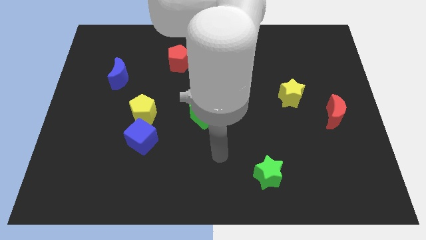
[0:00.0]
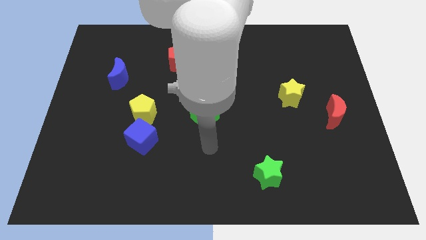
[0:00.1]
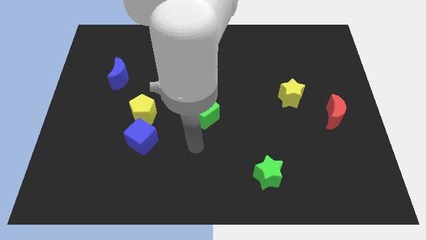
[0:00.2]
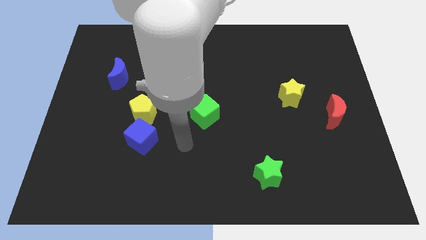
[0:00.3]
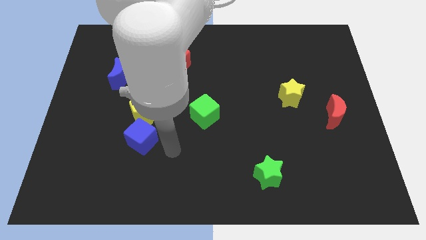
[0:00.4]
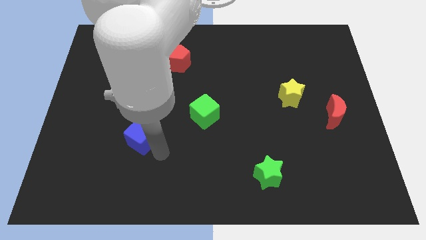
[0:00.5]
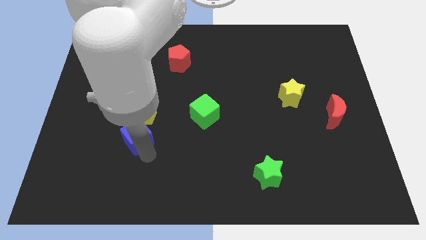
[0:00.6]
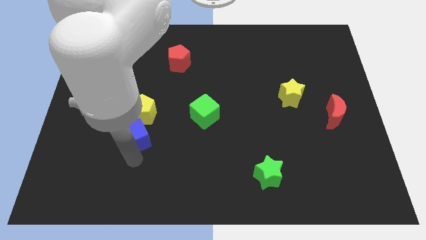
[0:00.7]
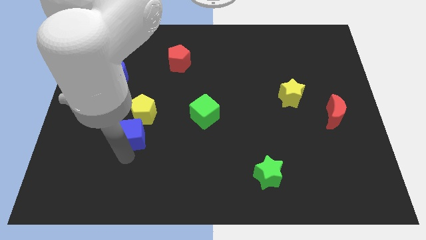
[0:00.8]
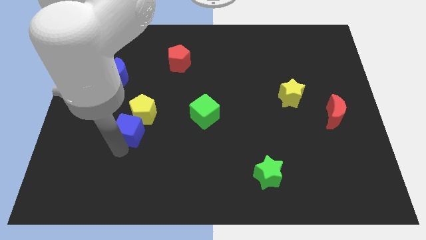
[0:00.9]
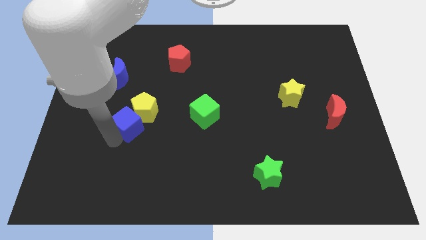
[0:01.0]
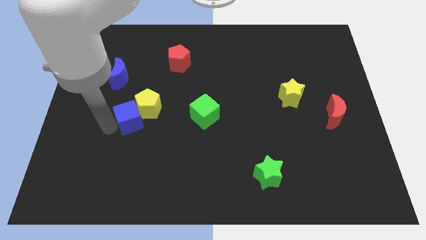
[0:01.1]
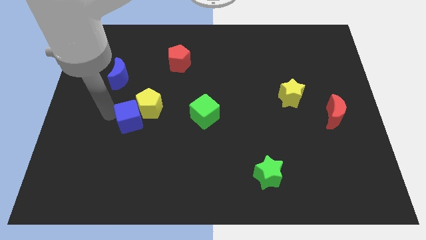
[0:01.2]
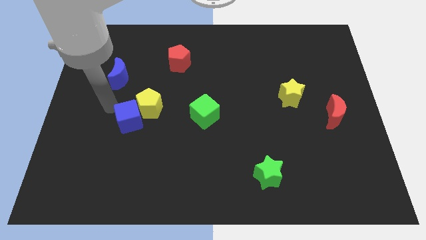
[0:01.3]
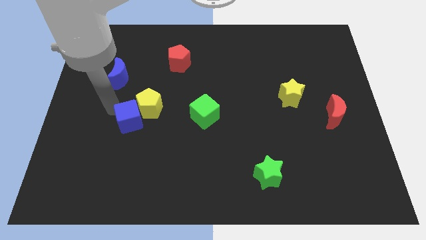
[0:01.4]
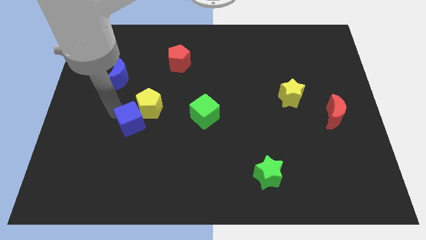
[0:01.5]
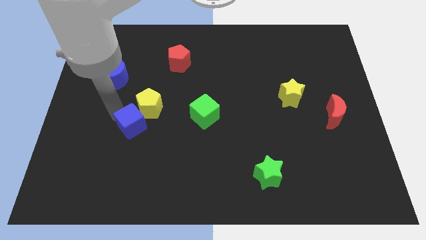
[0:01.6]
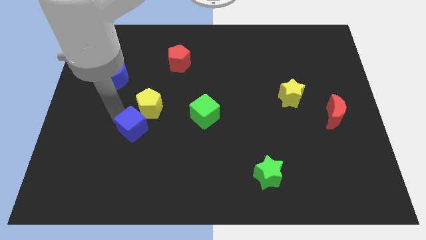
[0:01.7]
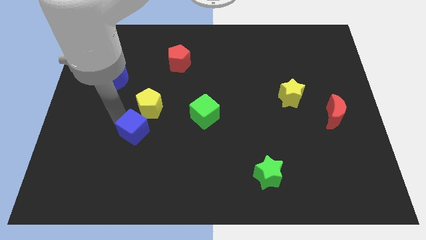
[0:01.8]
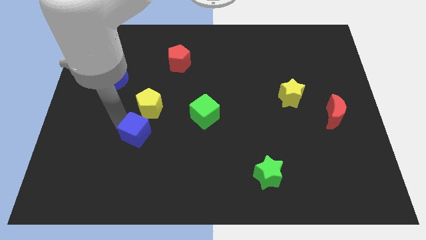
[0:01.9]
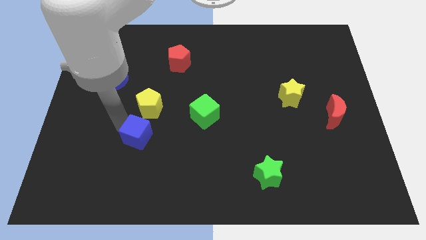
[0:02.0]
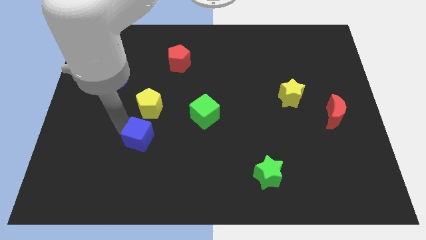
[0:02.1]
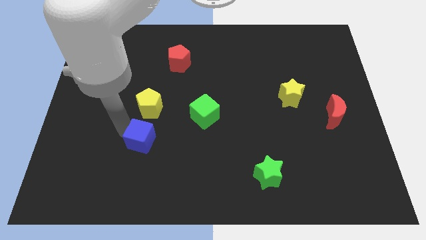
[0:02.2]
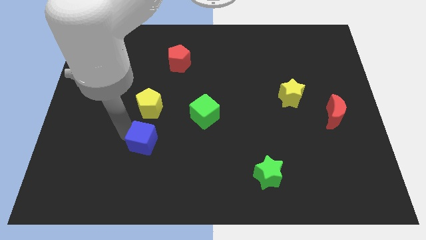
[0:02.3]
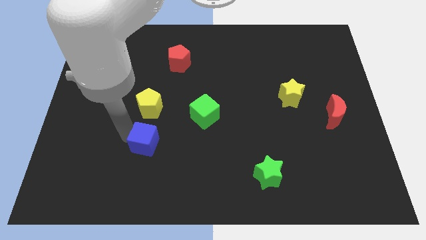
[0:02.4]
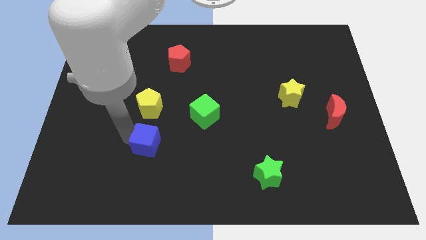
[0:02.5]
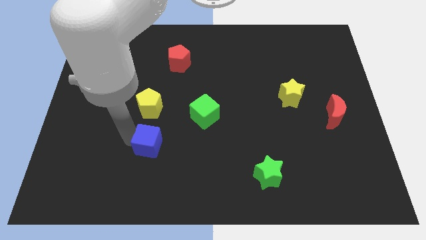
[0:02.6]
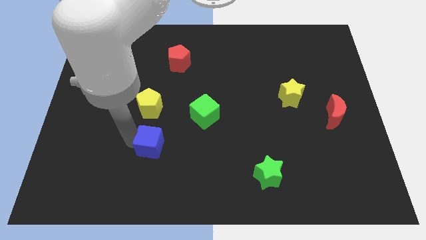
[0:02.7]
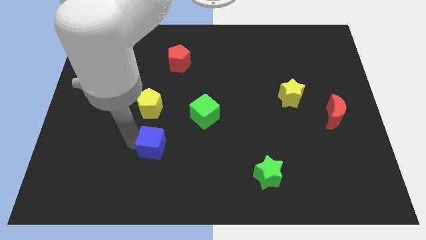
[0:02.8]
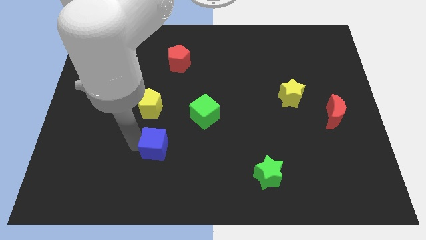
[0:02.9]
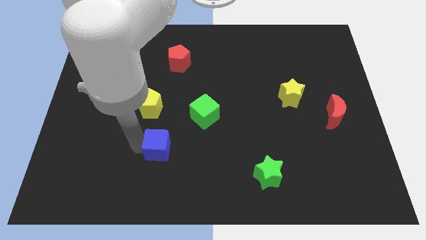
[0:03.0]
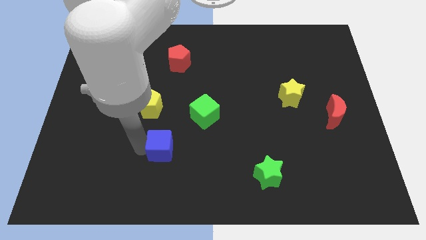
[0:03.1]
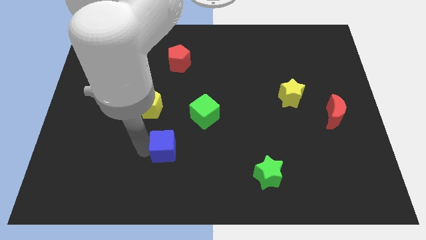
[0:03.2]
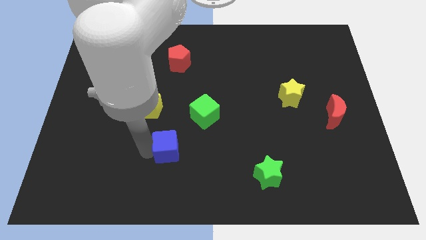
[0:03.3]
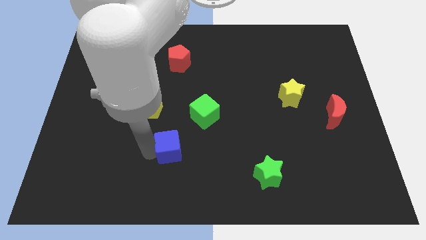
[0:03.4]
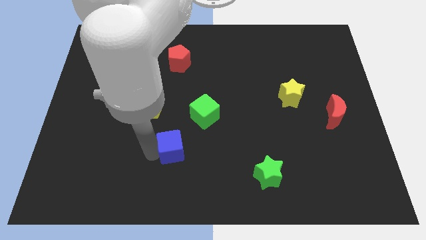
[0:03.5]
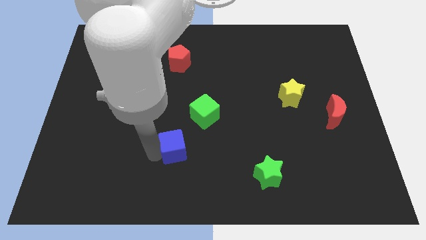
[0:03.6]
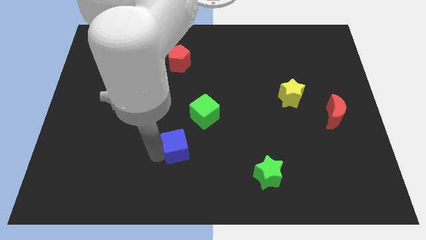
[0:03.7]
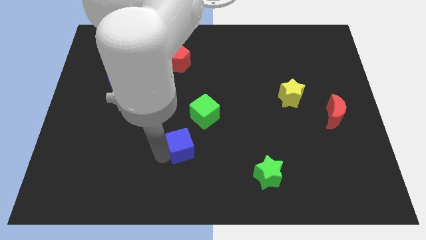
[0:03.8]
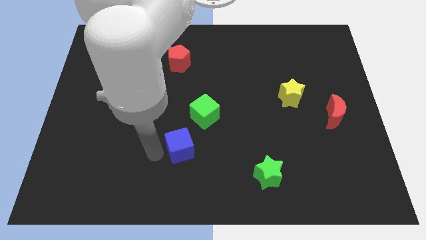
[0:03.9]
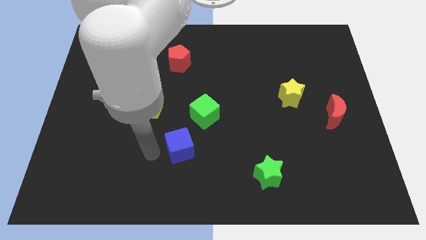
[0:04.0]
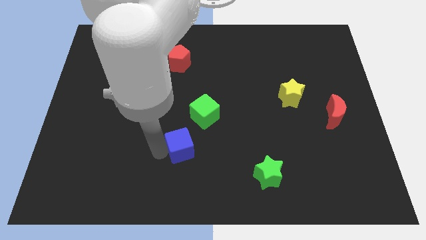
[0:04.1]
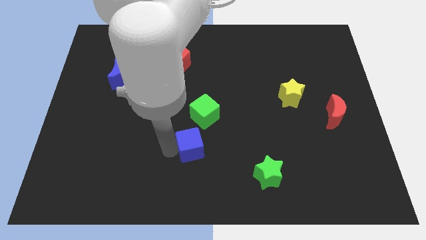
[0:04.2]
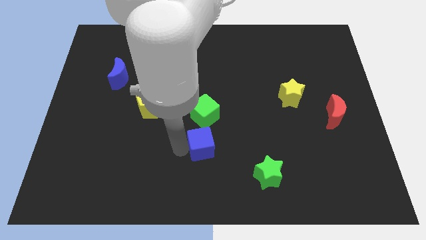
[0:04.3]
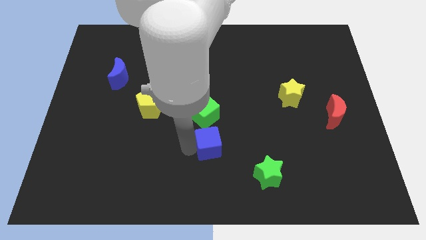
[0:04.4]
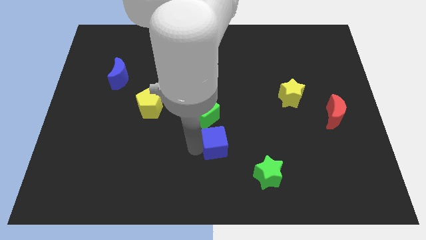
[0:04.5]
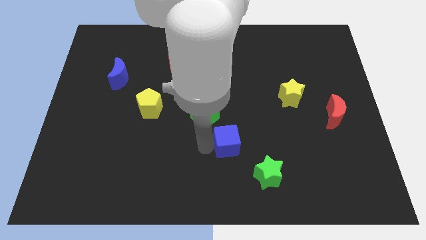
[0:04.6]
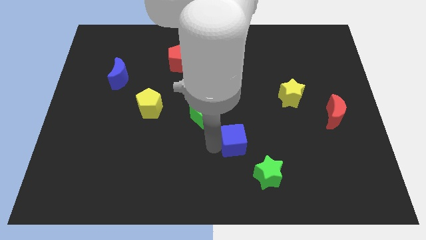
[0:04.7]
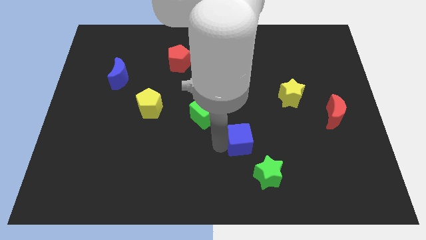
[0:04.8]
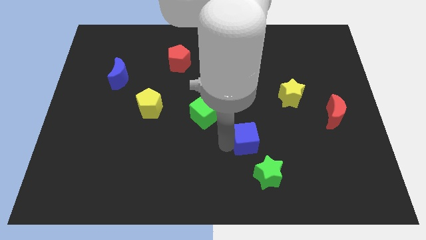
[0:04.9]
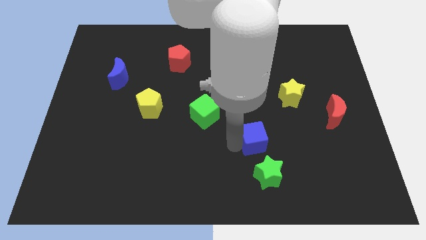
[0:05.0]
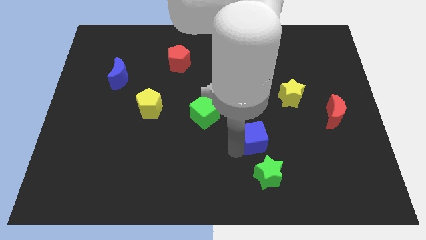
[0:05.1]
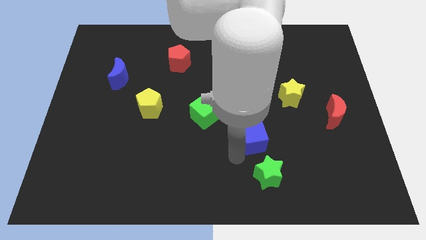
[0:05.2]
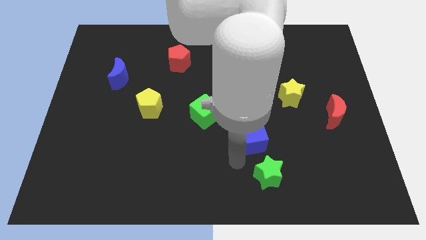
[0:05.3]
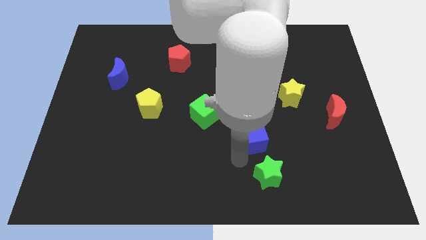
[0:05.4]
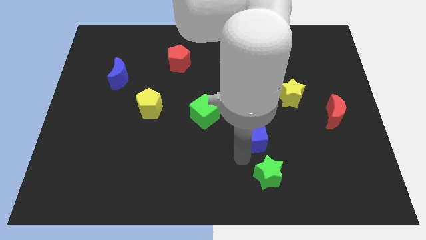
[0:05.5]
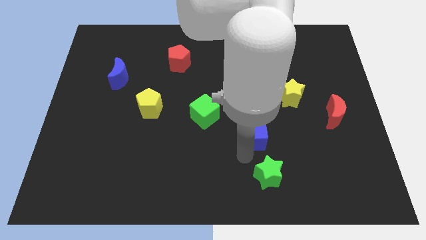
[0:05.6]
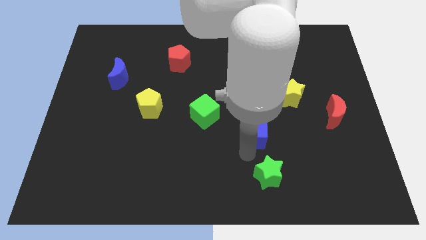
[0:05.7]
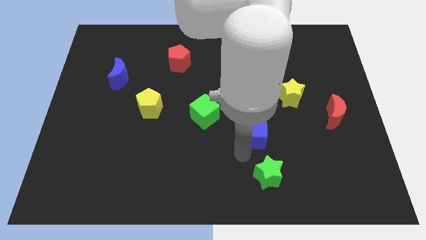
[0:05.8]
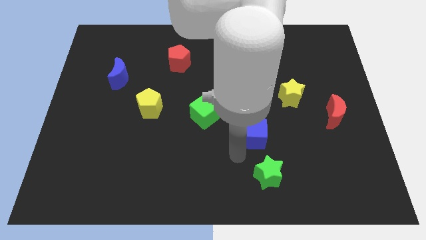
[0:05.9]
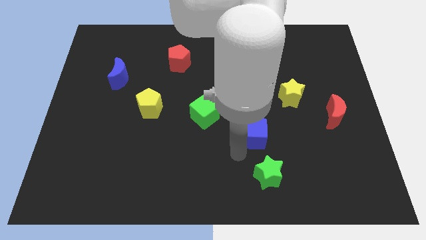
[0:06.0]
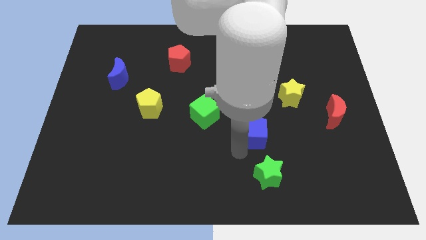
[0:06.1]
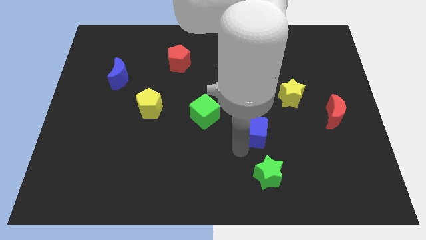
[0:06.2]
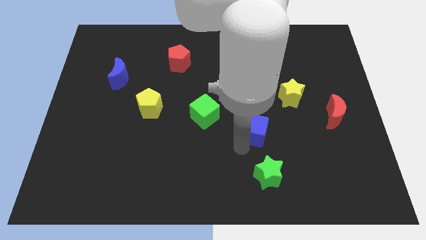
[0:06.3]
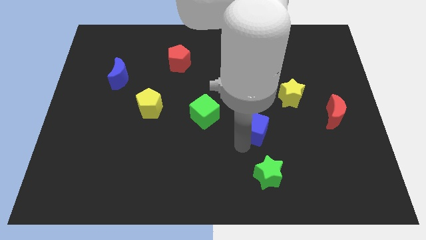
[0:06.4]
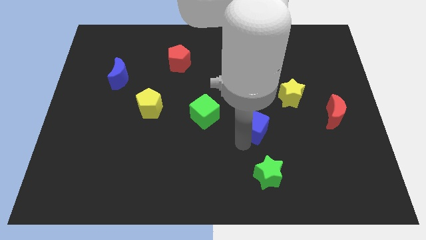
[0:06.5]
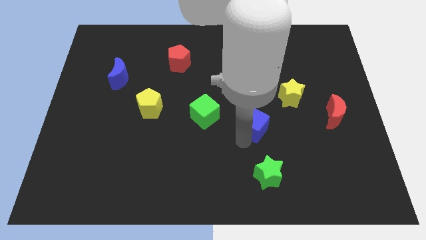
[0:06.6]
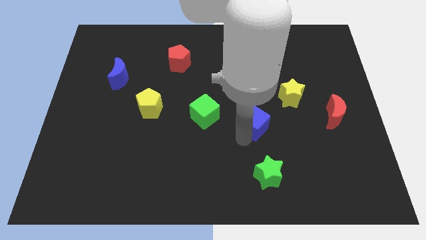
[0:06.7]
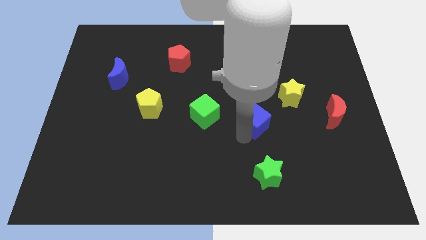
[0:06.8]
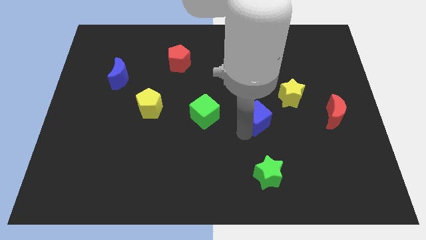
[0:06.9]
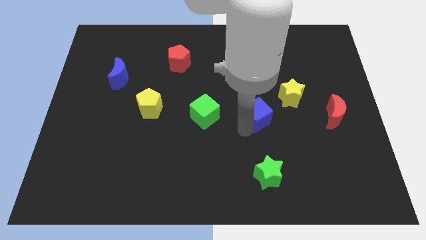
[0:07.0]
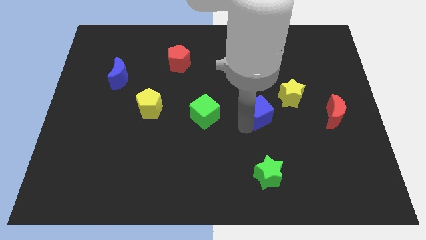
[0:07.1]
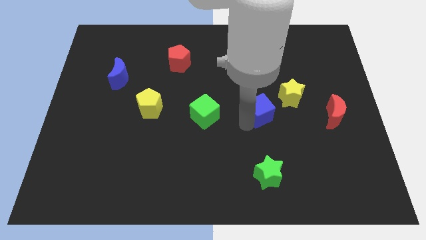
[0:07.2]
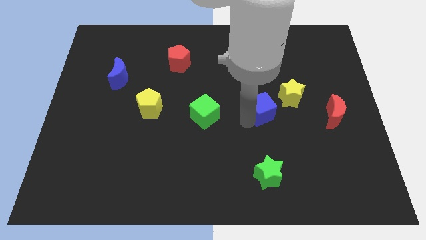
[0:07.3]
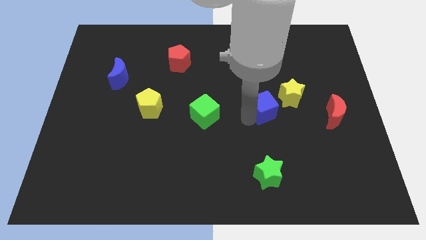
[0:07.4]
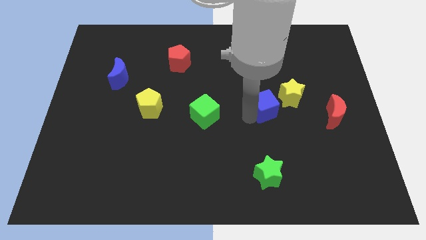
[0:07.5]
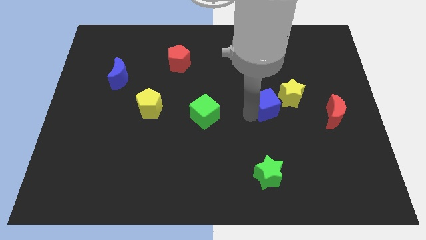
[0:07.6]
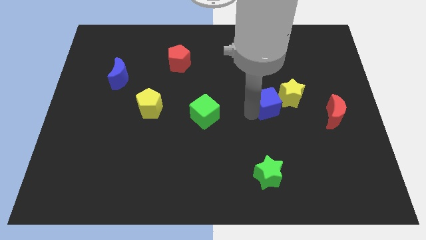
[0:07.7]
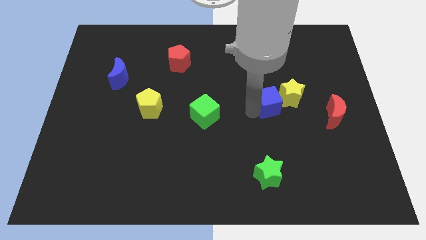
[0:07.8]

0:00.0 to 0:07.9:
put the blue cube towards the yellow star
